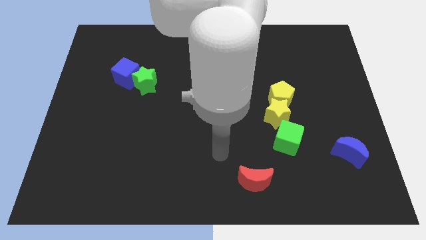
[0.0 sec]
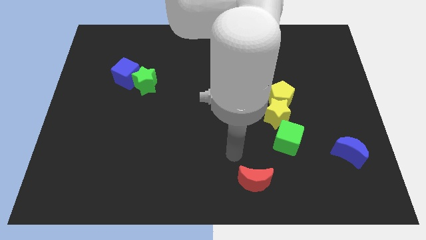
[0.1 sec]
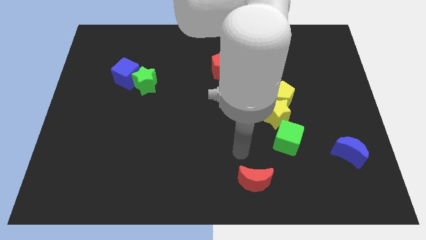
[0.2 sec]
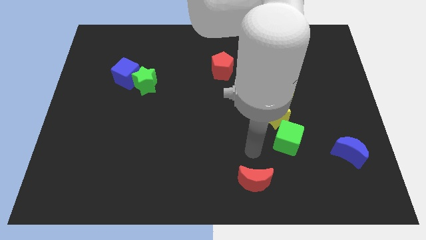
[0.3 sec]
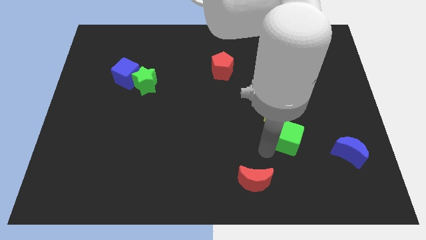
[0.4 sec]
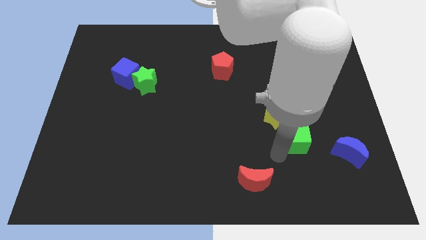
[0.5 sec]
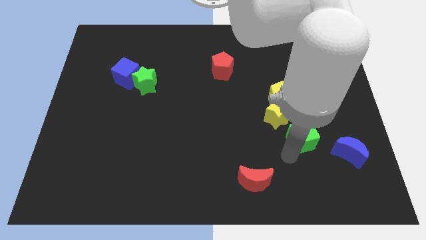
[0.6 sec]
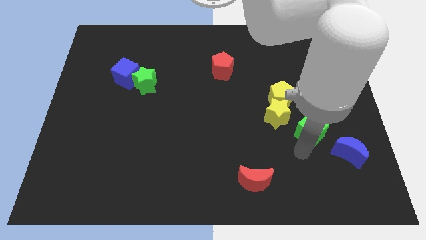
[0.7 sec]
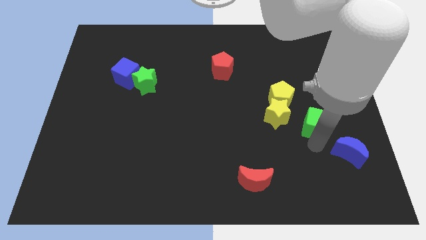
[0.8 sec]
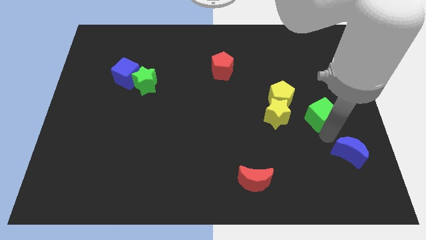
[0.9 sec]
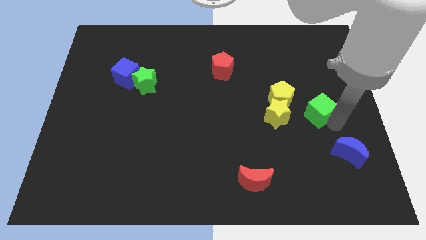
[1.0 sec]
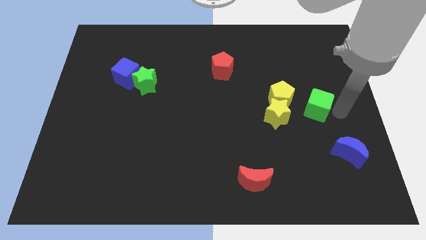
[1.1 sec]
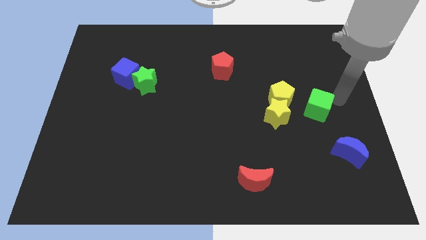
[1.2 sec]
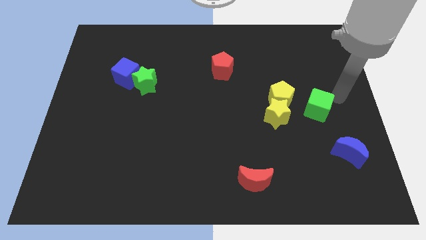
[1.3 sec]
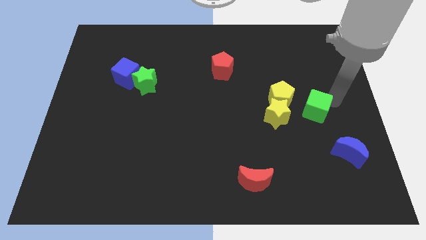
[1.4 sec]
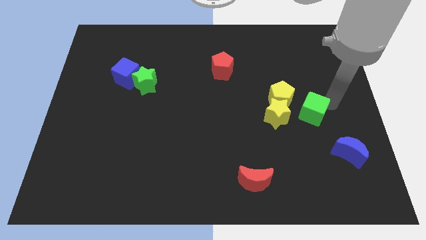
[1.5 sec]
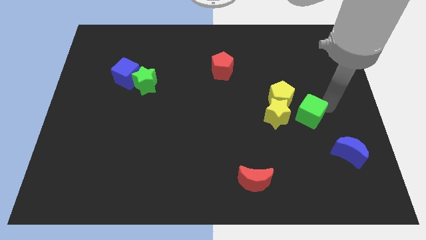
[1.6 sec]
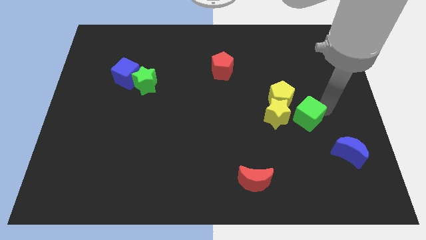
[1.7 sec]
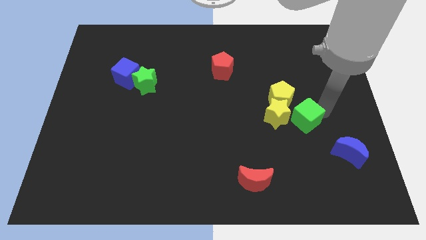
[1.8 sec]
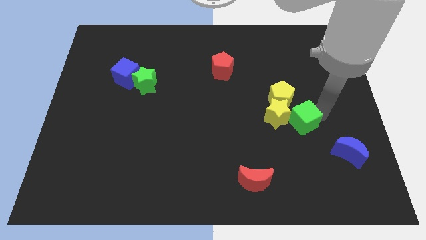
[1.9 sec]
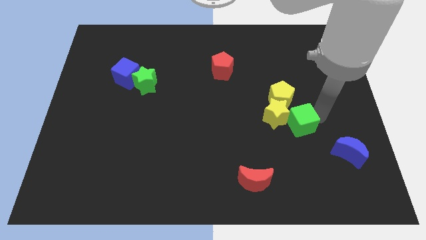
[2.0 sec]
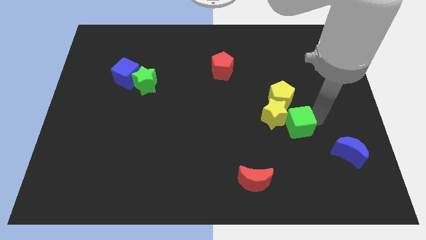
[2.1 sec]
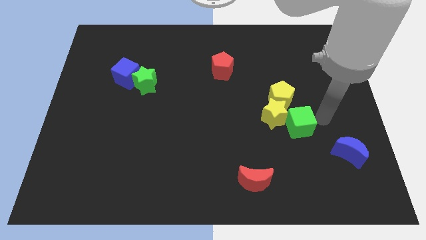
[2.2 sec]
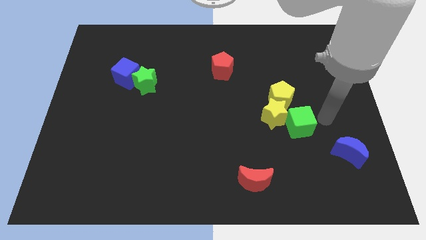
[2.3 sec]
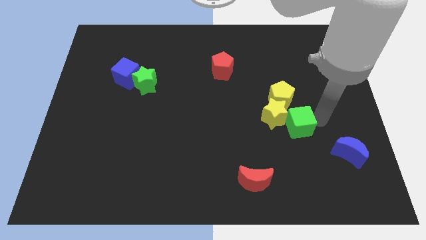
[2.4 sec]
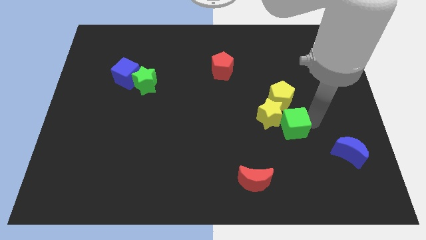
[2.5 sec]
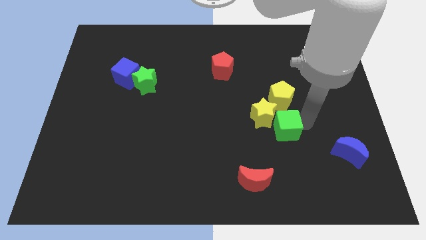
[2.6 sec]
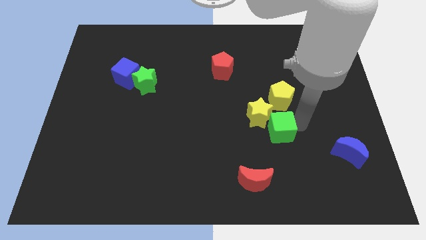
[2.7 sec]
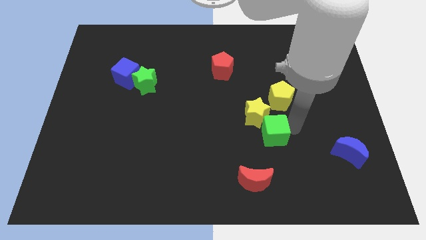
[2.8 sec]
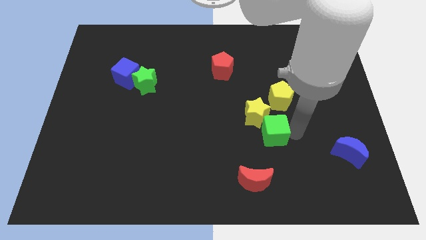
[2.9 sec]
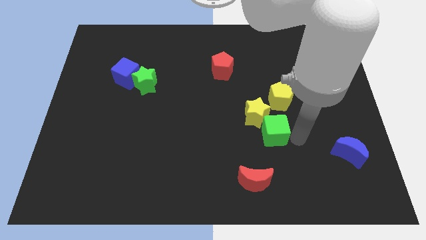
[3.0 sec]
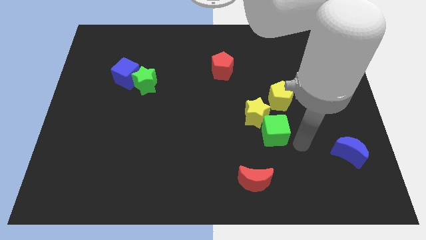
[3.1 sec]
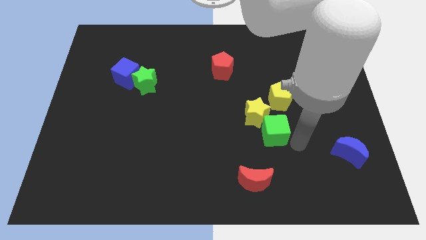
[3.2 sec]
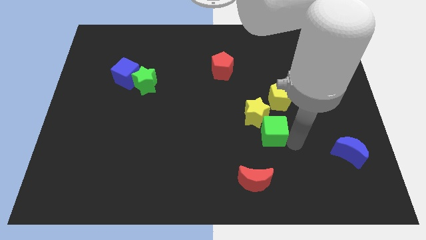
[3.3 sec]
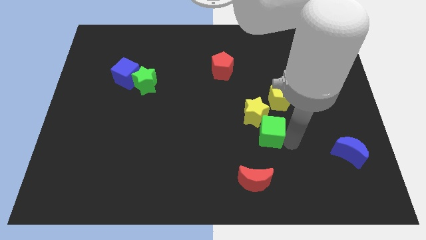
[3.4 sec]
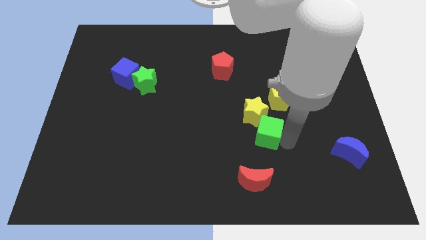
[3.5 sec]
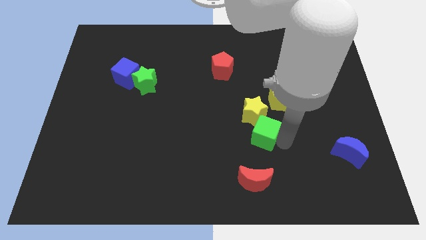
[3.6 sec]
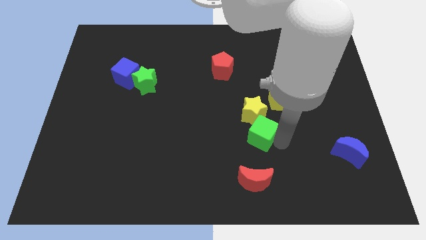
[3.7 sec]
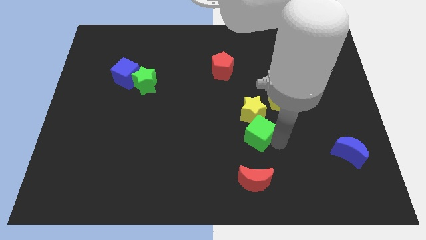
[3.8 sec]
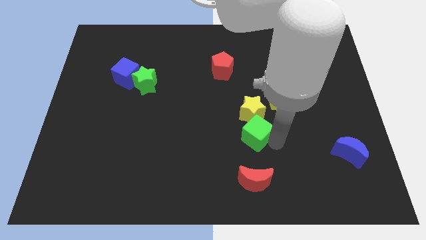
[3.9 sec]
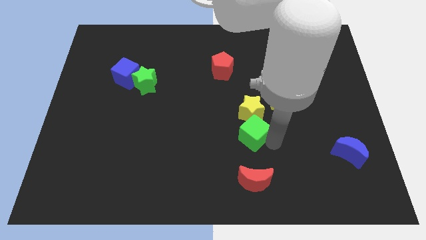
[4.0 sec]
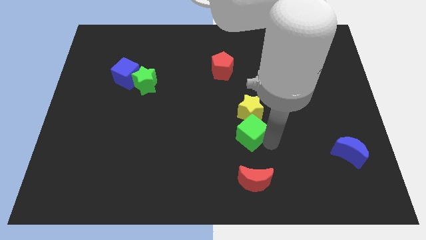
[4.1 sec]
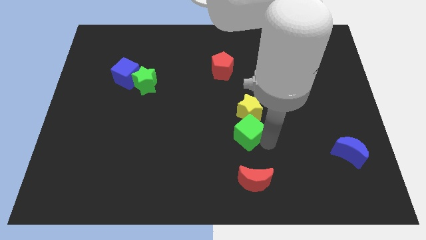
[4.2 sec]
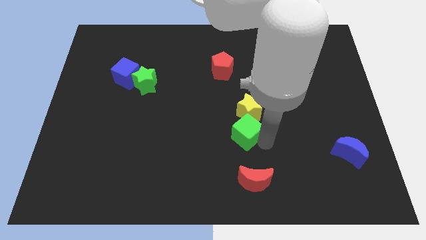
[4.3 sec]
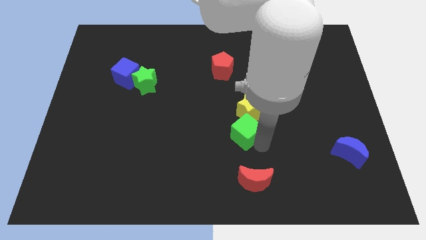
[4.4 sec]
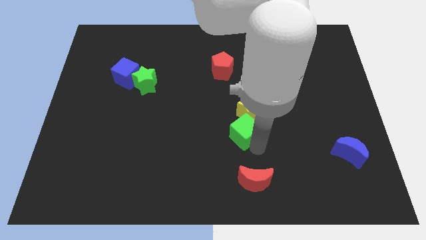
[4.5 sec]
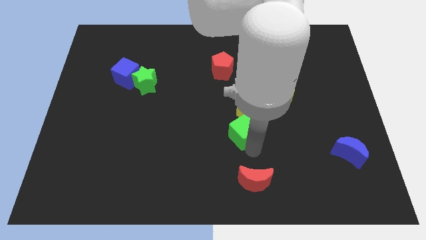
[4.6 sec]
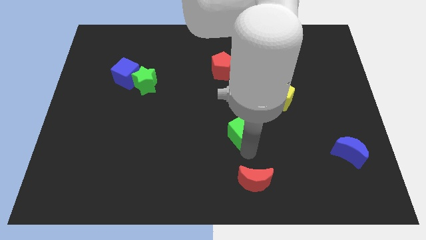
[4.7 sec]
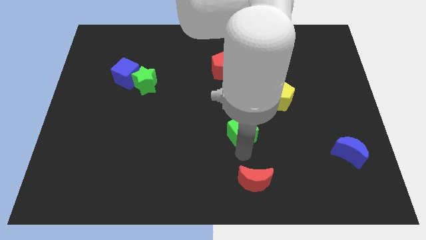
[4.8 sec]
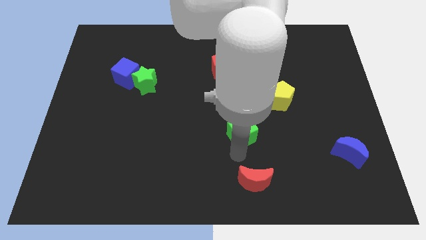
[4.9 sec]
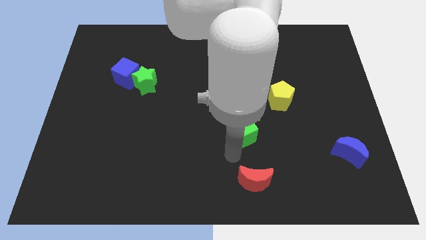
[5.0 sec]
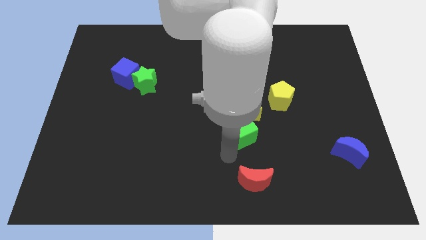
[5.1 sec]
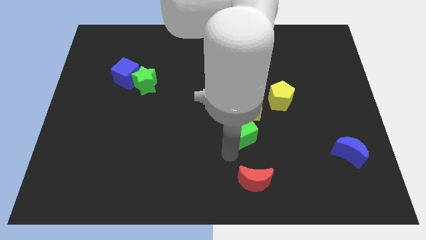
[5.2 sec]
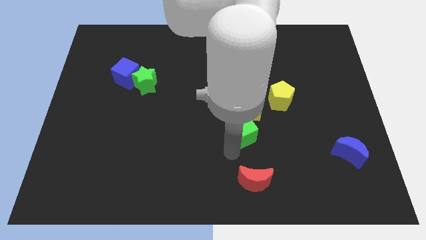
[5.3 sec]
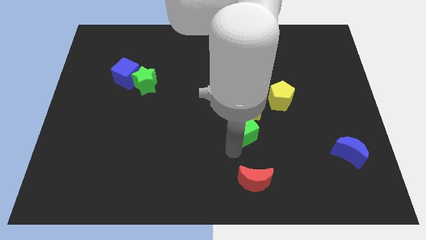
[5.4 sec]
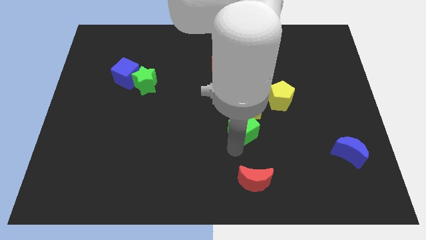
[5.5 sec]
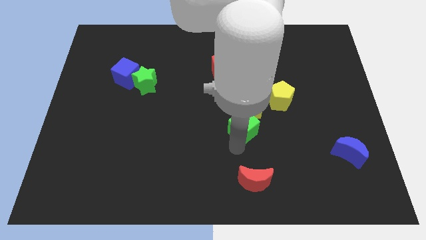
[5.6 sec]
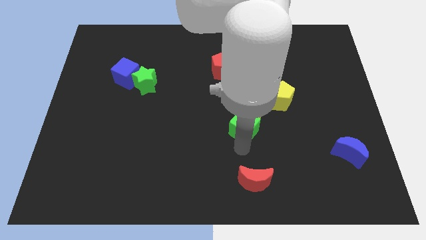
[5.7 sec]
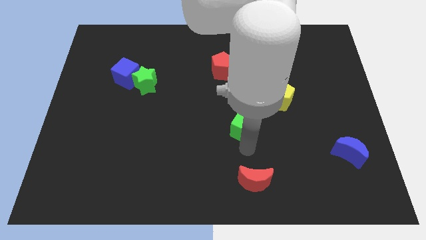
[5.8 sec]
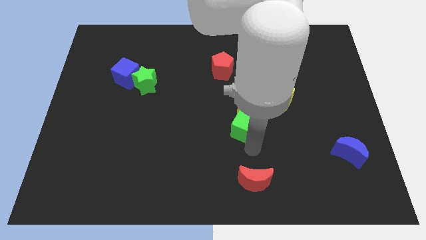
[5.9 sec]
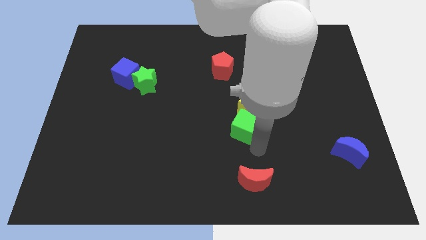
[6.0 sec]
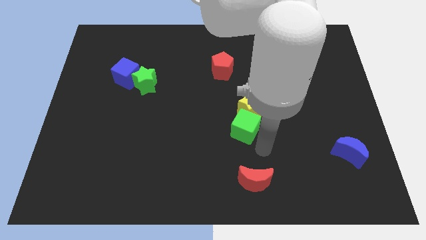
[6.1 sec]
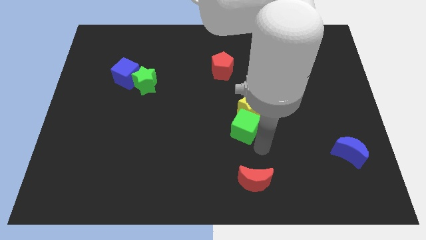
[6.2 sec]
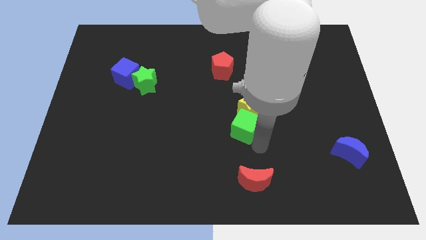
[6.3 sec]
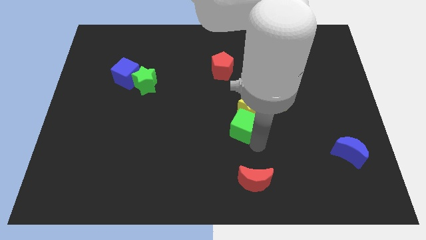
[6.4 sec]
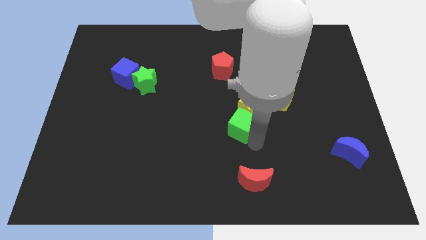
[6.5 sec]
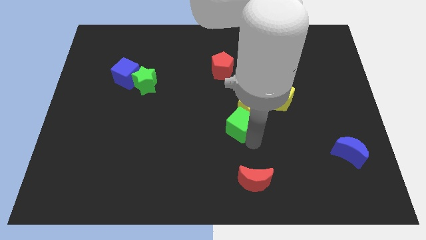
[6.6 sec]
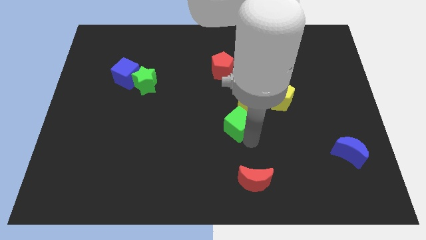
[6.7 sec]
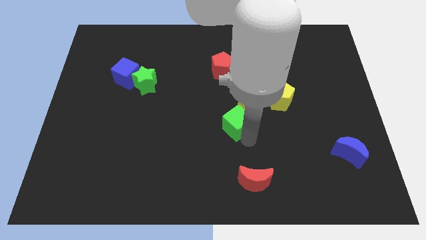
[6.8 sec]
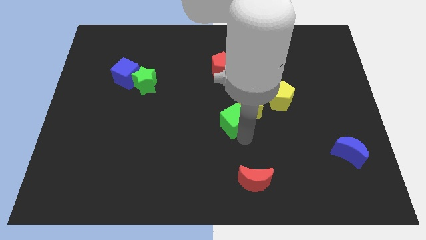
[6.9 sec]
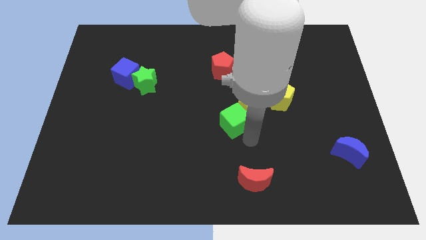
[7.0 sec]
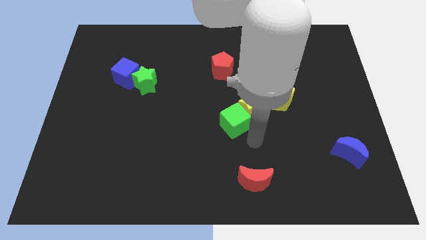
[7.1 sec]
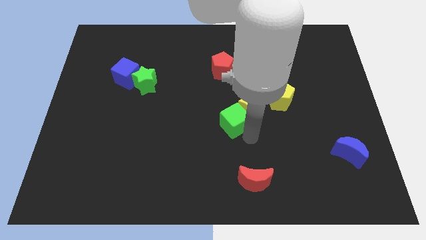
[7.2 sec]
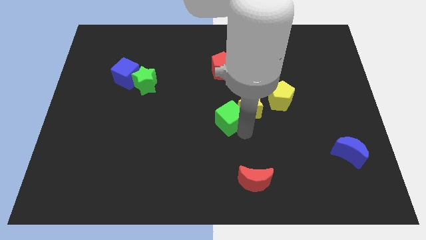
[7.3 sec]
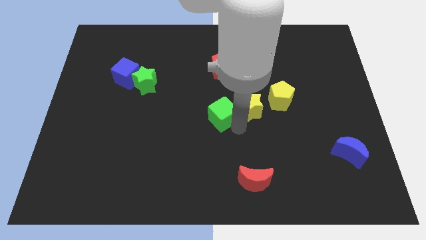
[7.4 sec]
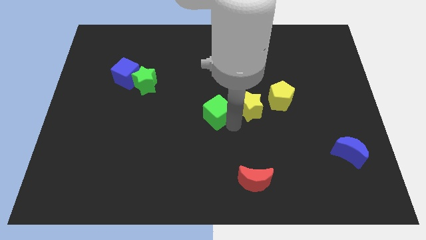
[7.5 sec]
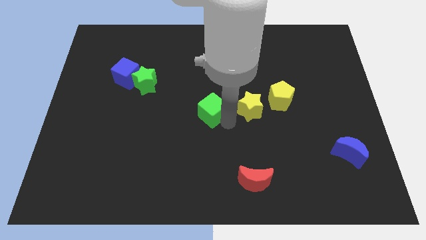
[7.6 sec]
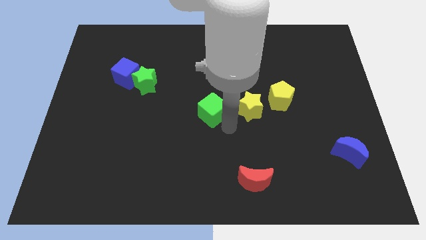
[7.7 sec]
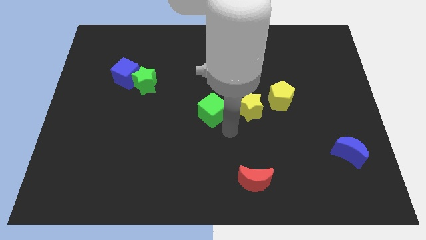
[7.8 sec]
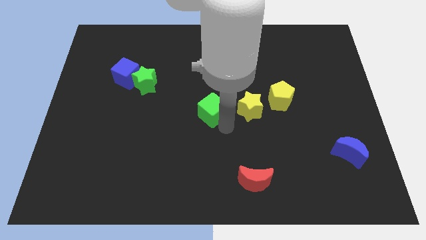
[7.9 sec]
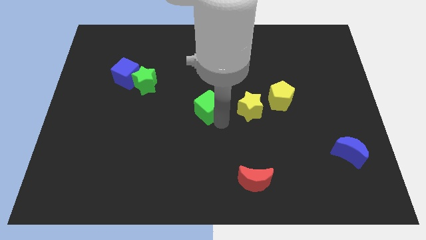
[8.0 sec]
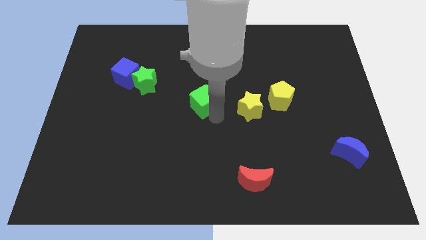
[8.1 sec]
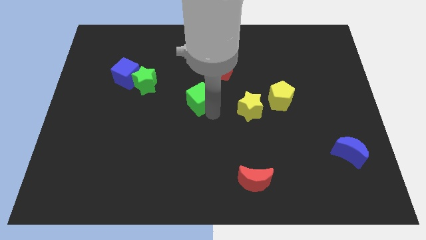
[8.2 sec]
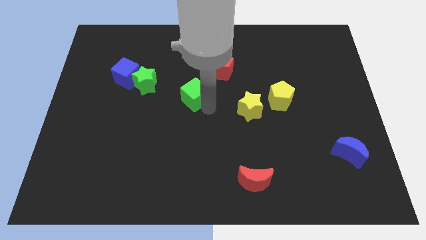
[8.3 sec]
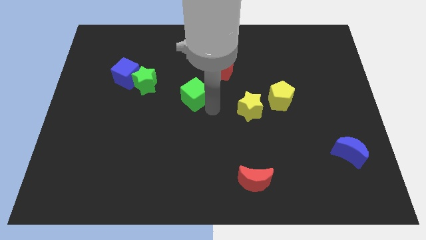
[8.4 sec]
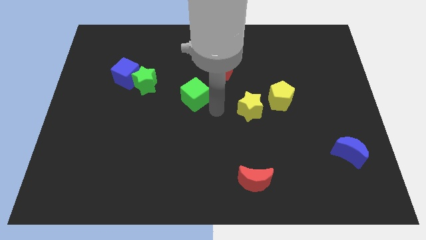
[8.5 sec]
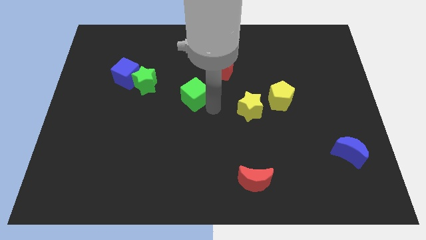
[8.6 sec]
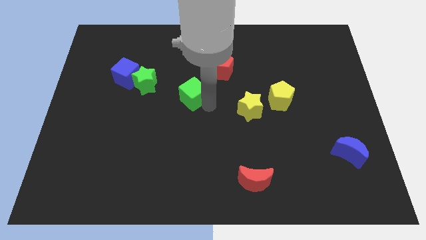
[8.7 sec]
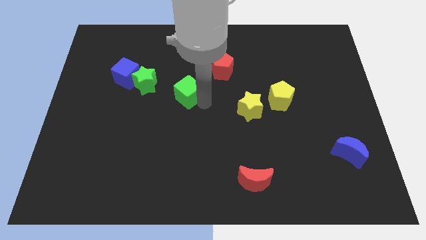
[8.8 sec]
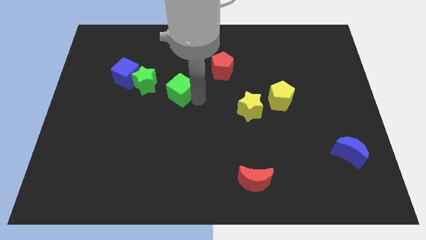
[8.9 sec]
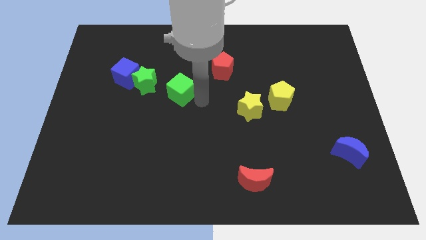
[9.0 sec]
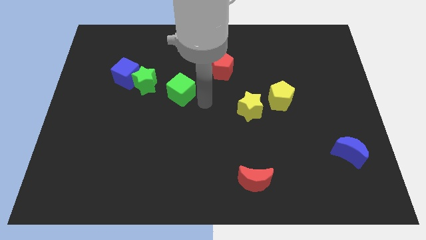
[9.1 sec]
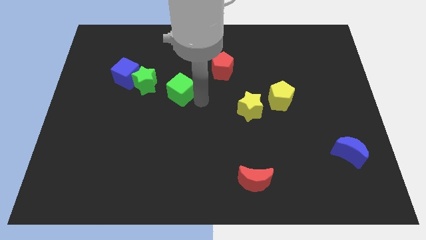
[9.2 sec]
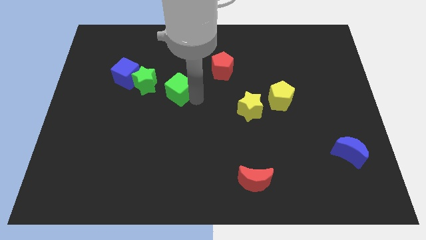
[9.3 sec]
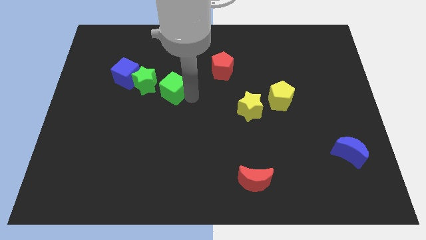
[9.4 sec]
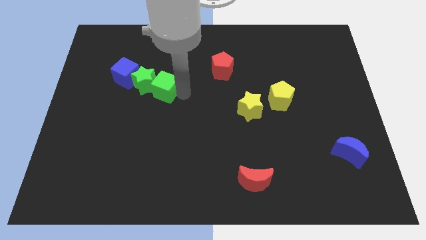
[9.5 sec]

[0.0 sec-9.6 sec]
push the green cube close to the green star
